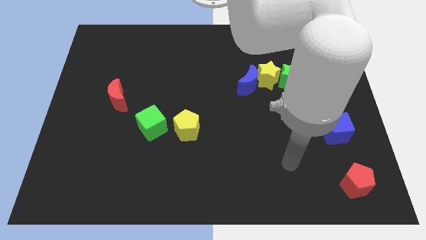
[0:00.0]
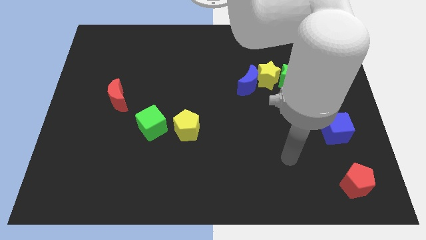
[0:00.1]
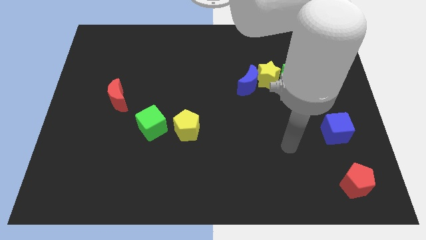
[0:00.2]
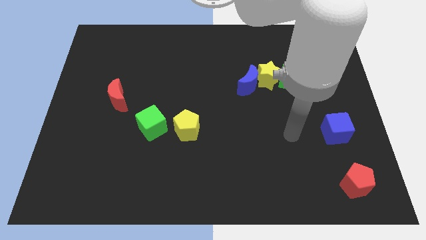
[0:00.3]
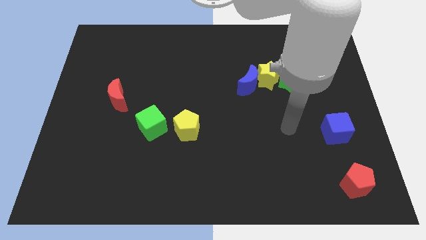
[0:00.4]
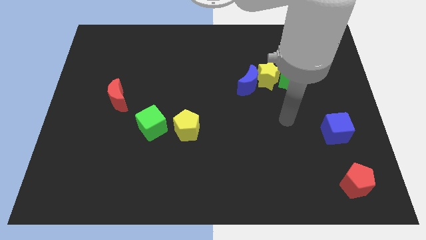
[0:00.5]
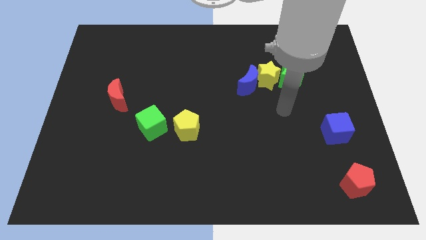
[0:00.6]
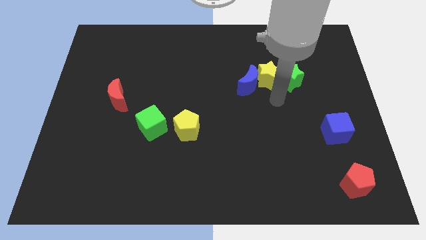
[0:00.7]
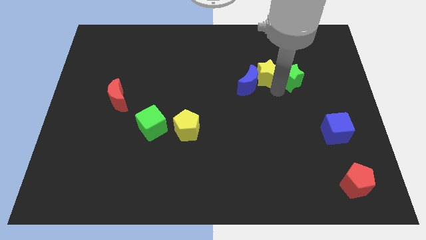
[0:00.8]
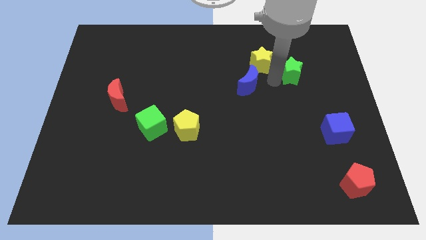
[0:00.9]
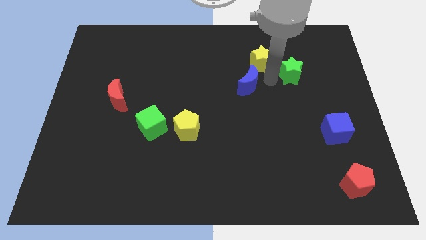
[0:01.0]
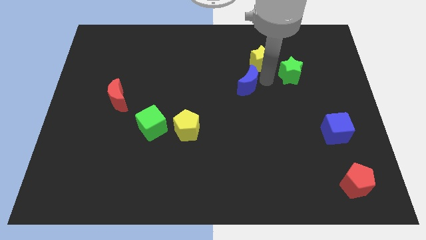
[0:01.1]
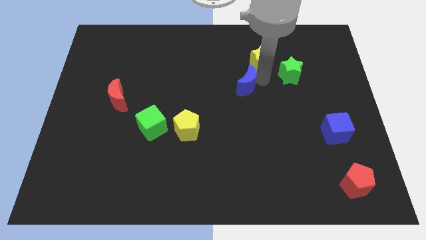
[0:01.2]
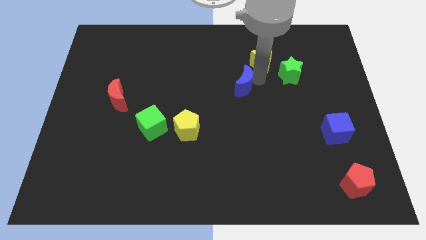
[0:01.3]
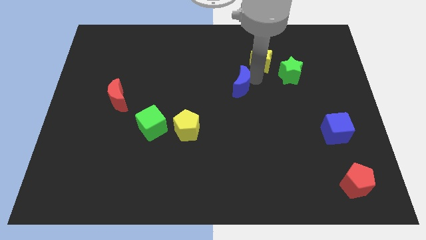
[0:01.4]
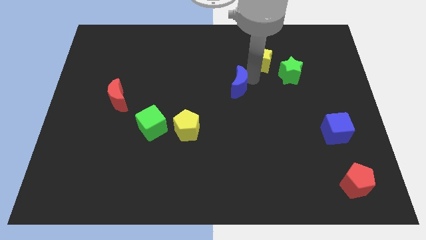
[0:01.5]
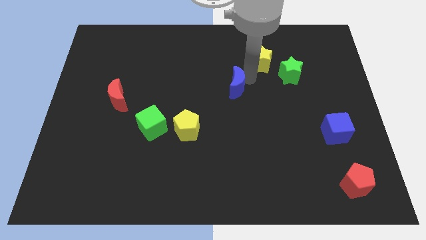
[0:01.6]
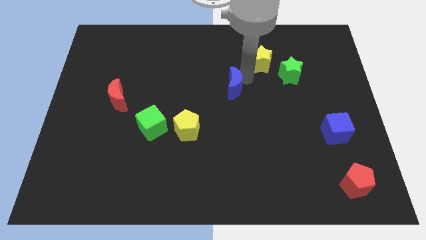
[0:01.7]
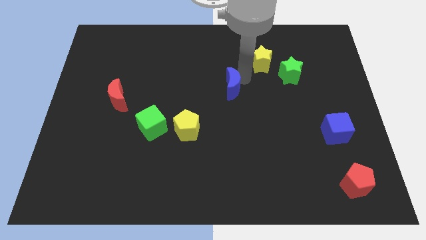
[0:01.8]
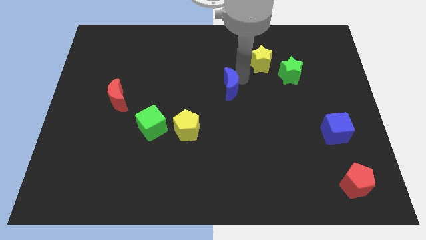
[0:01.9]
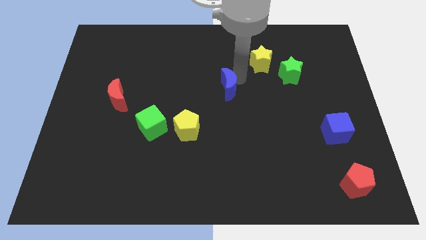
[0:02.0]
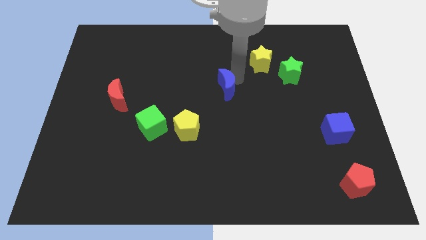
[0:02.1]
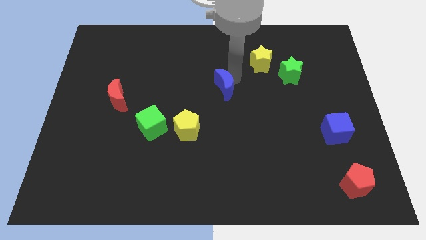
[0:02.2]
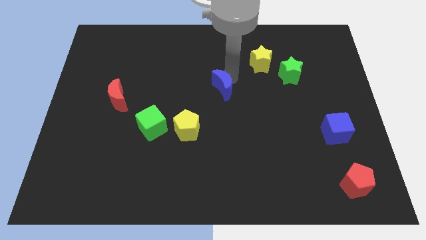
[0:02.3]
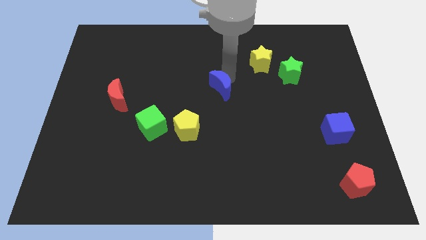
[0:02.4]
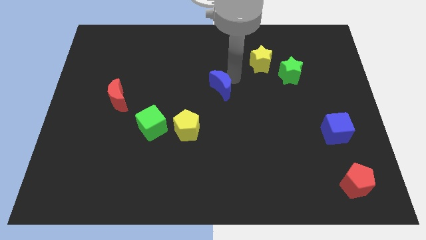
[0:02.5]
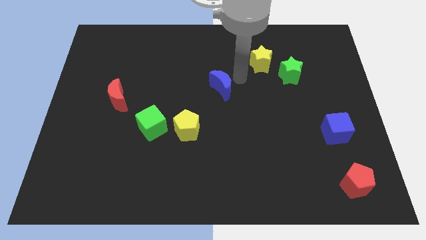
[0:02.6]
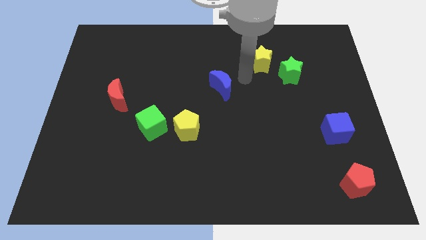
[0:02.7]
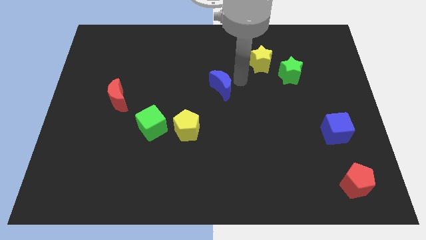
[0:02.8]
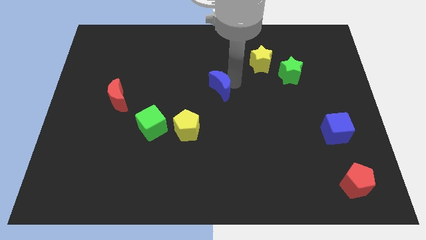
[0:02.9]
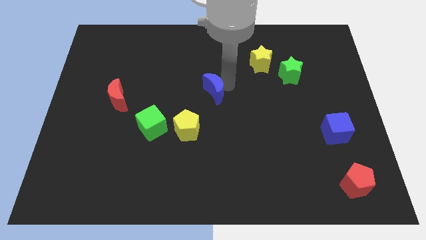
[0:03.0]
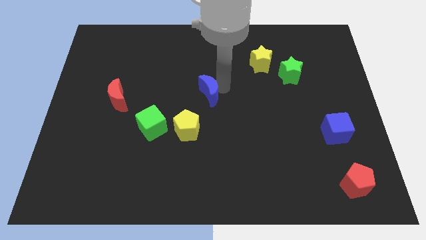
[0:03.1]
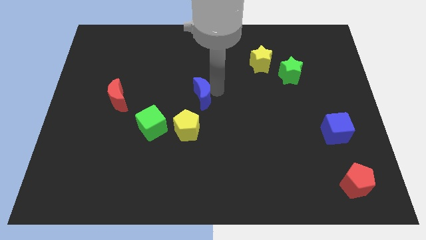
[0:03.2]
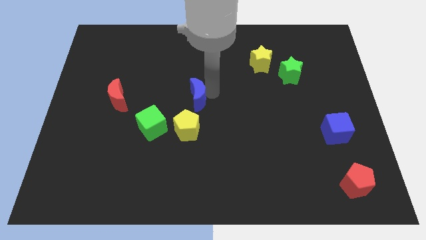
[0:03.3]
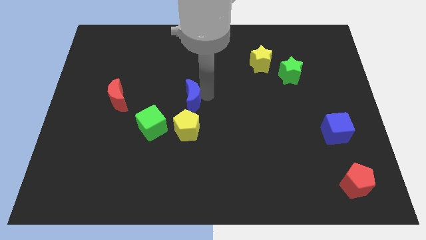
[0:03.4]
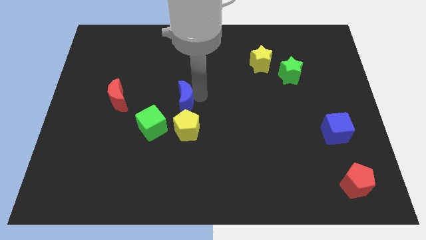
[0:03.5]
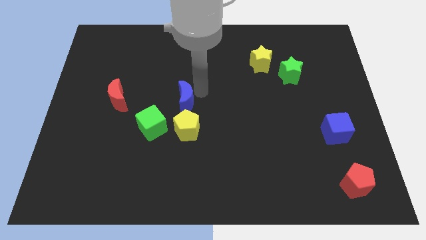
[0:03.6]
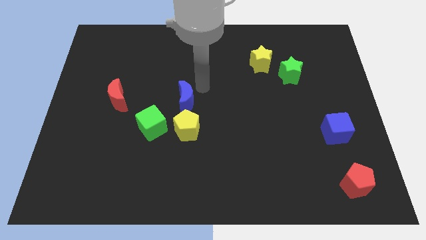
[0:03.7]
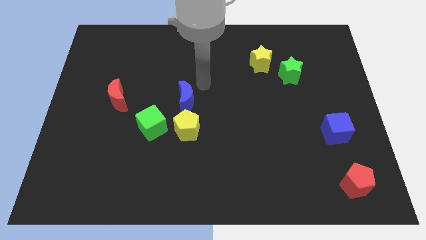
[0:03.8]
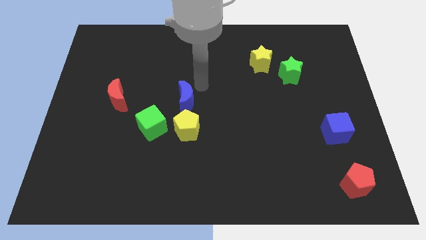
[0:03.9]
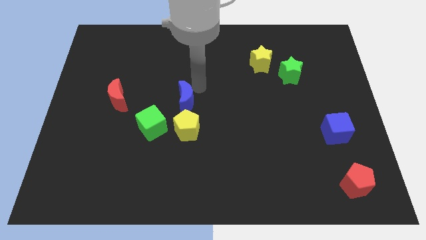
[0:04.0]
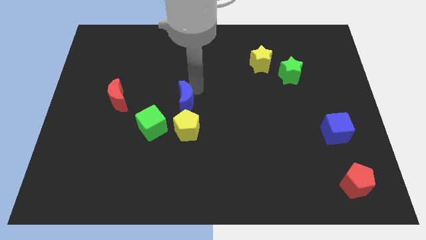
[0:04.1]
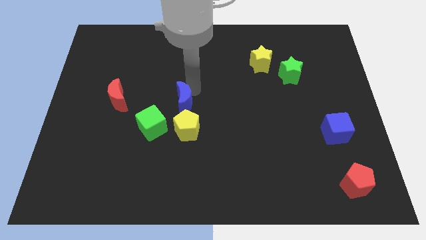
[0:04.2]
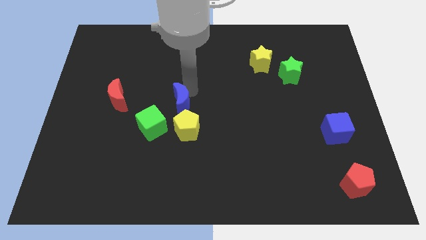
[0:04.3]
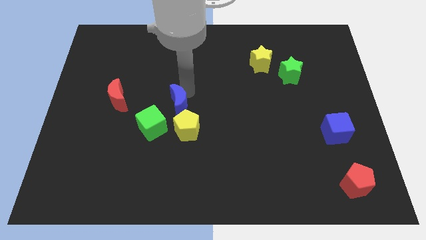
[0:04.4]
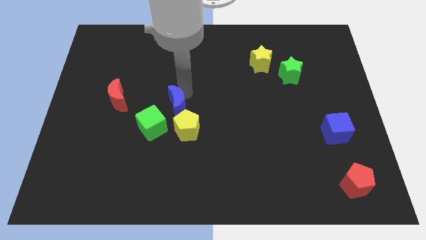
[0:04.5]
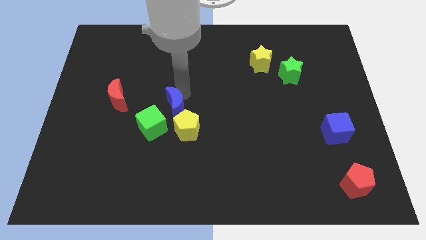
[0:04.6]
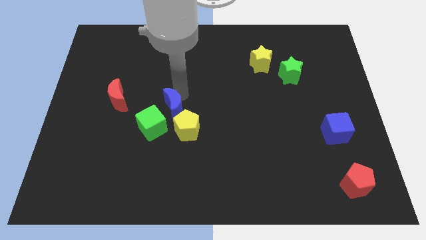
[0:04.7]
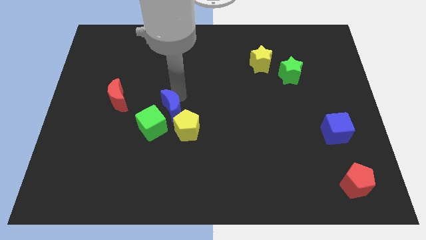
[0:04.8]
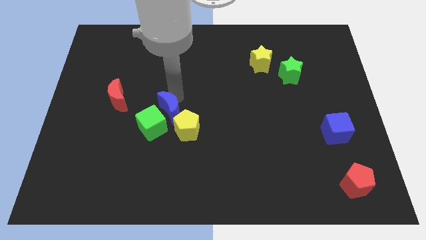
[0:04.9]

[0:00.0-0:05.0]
move the blue moon towards the green cube

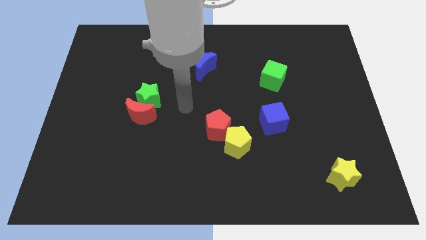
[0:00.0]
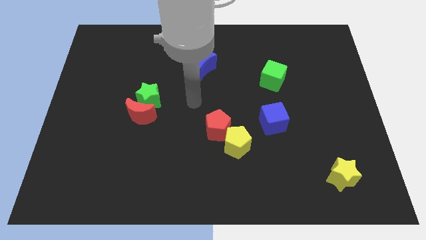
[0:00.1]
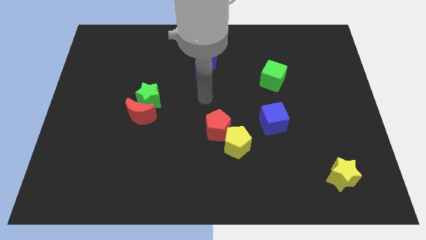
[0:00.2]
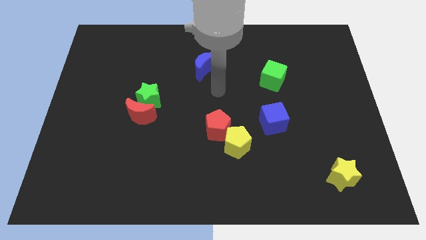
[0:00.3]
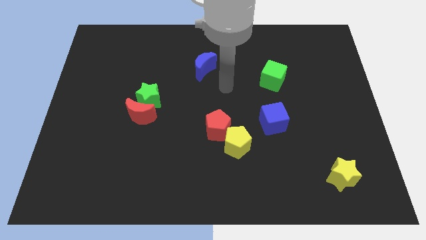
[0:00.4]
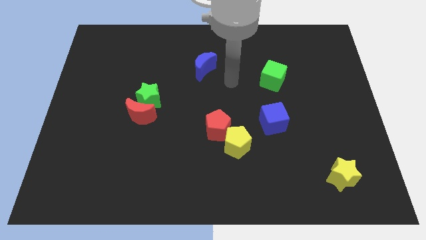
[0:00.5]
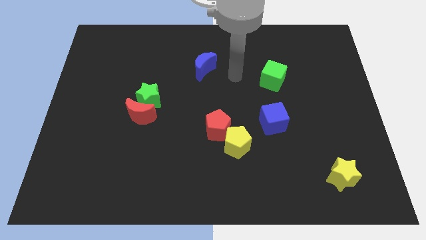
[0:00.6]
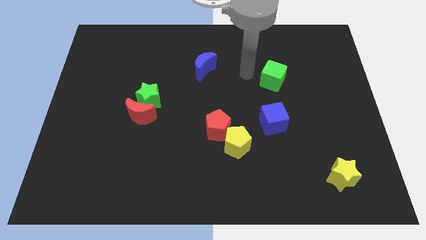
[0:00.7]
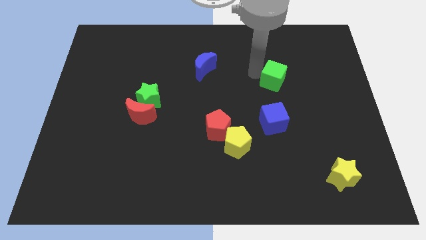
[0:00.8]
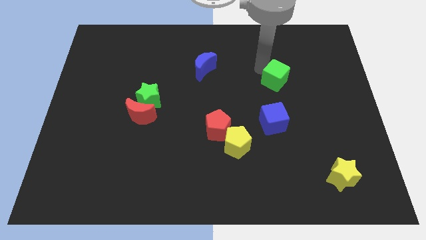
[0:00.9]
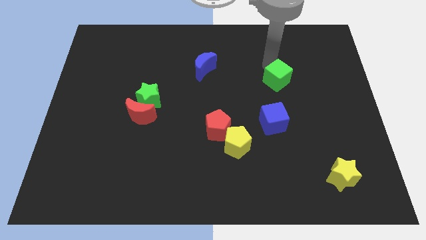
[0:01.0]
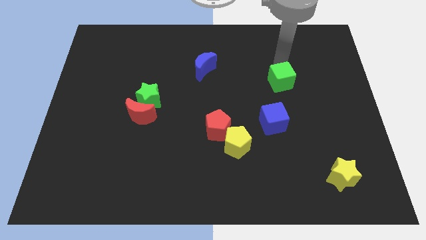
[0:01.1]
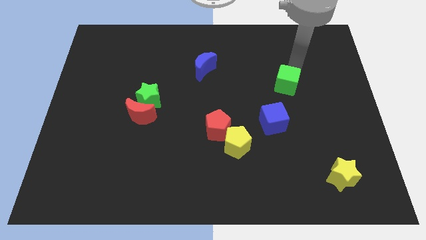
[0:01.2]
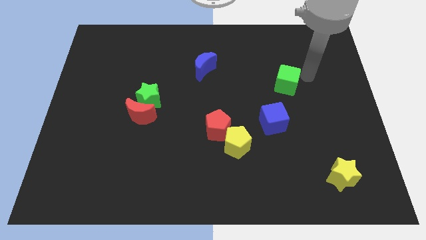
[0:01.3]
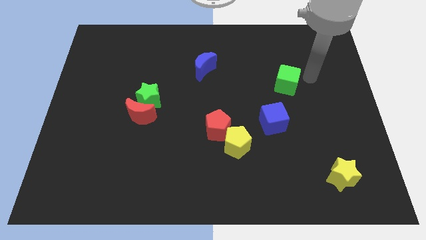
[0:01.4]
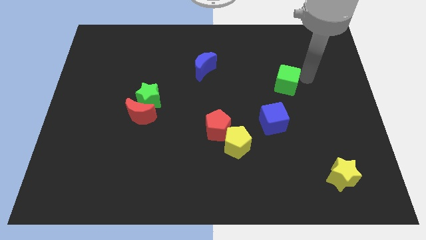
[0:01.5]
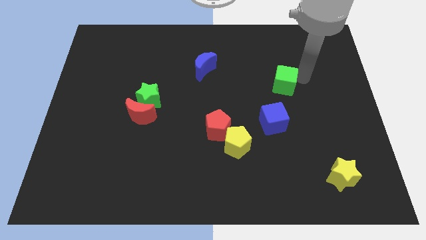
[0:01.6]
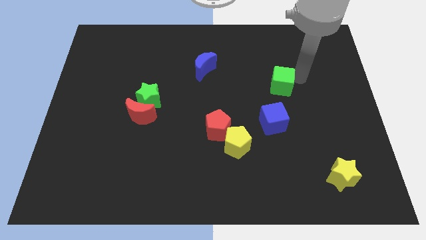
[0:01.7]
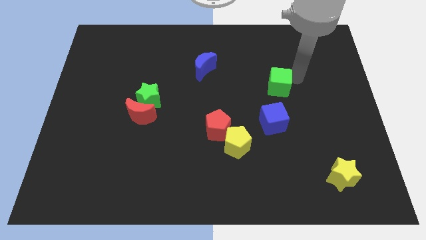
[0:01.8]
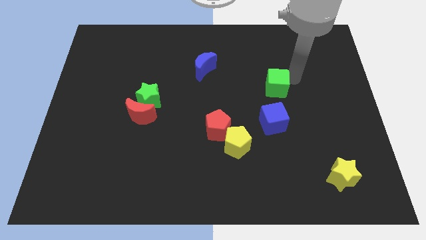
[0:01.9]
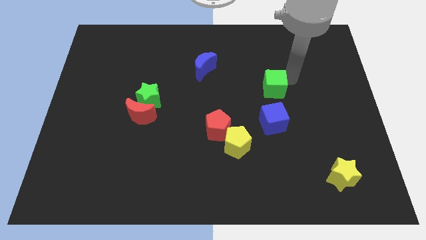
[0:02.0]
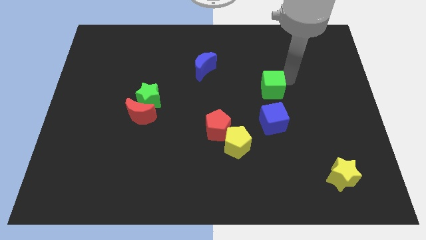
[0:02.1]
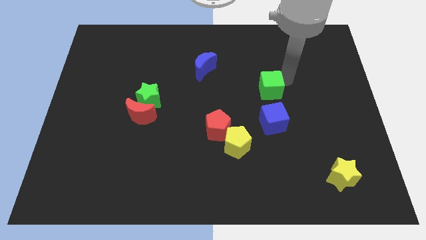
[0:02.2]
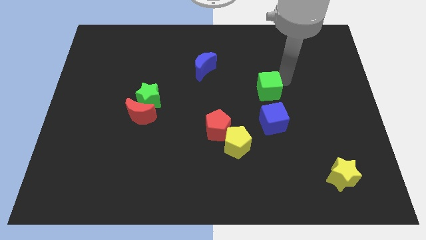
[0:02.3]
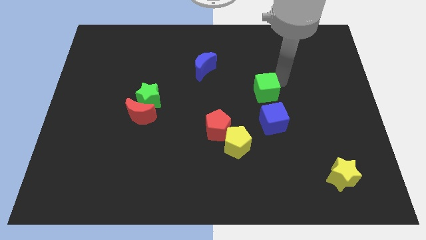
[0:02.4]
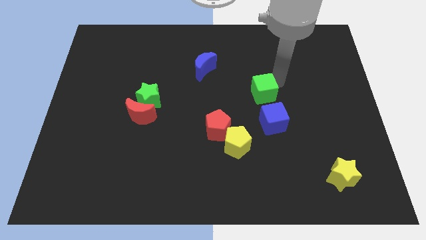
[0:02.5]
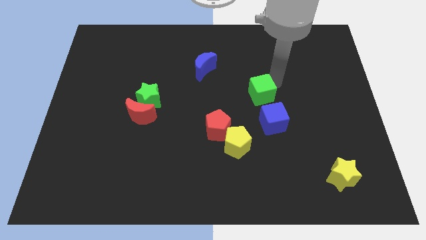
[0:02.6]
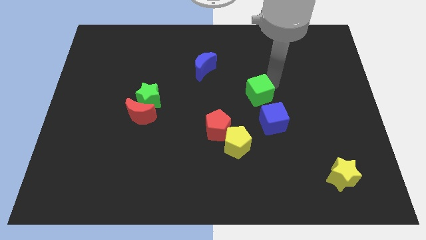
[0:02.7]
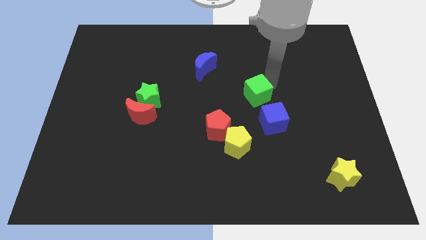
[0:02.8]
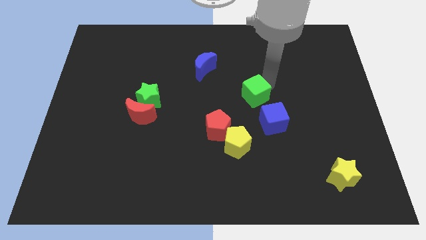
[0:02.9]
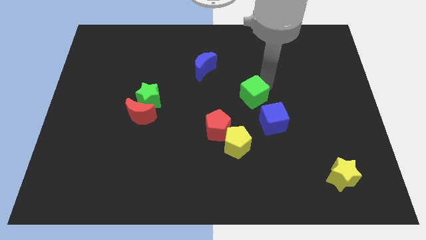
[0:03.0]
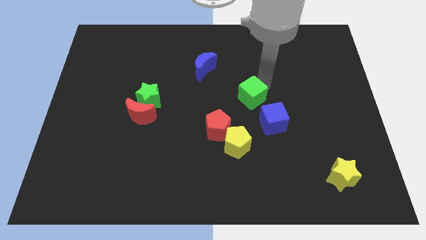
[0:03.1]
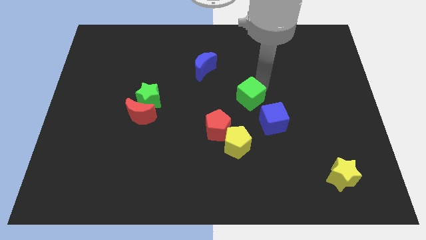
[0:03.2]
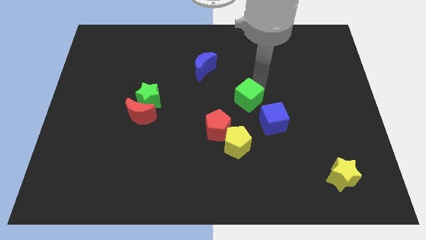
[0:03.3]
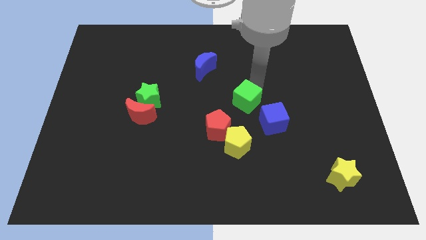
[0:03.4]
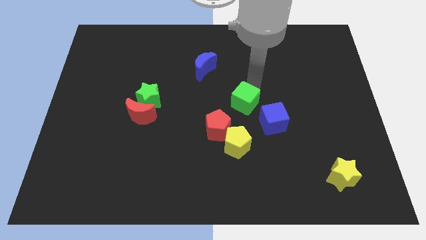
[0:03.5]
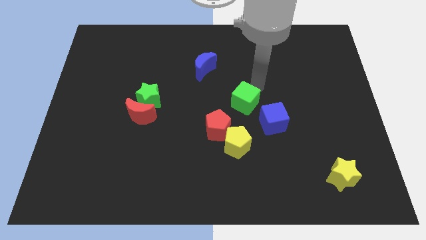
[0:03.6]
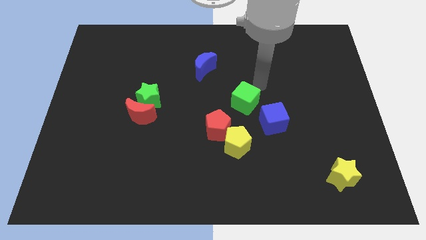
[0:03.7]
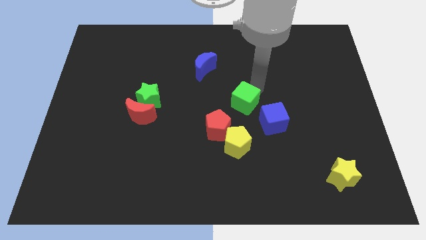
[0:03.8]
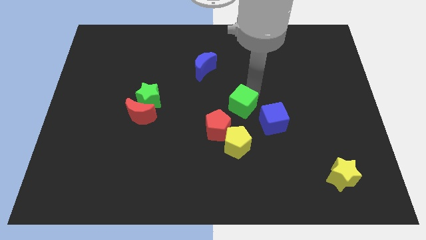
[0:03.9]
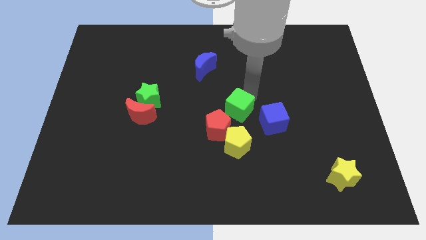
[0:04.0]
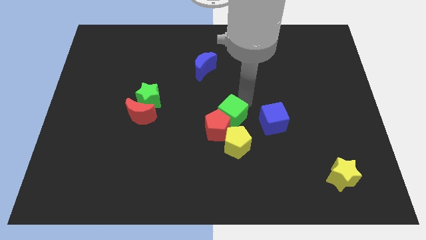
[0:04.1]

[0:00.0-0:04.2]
put the green cube next to the red pentagon
